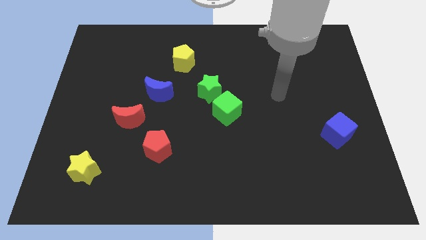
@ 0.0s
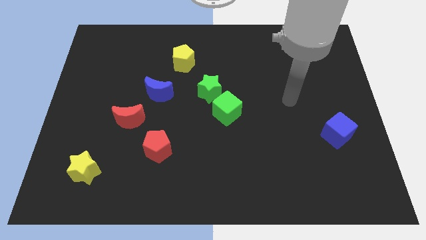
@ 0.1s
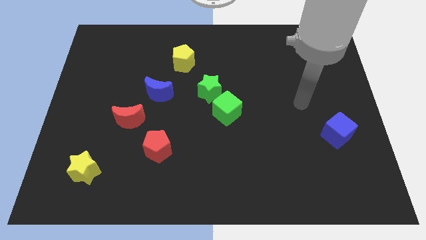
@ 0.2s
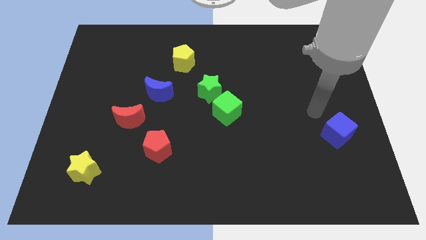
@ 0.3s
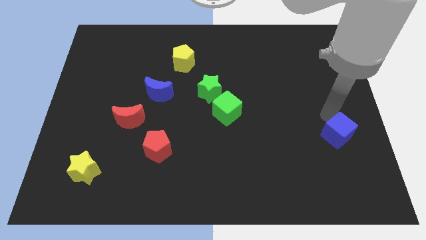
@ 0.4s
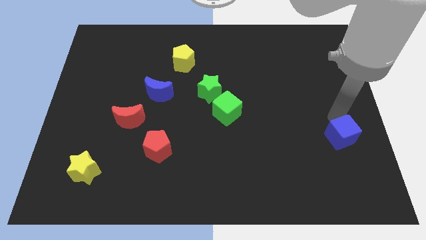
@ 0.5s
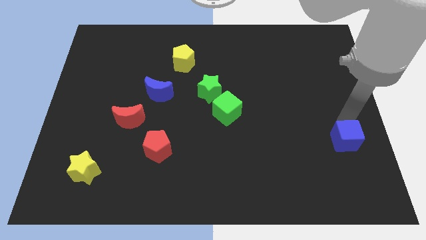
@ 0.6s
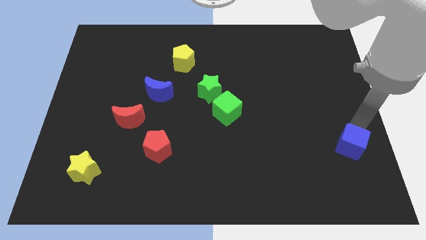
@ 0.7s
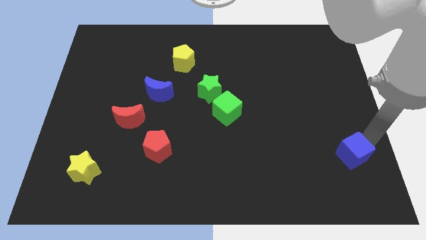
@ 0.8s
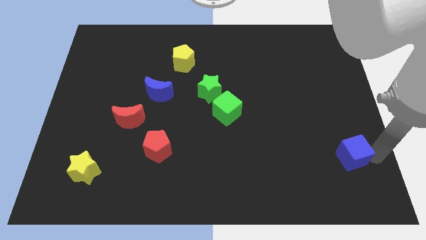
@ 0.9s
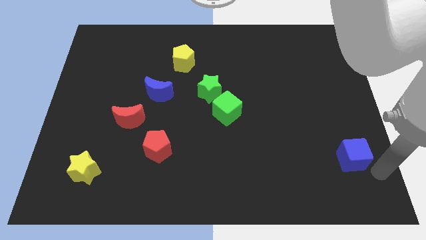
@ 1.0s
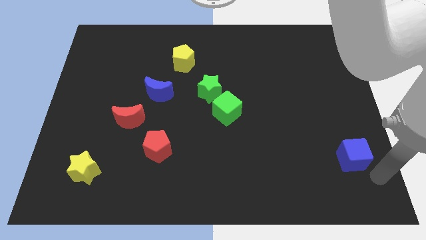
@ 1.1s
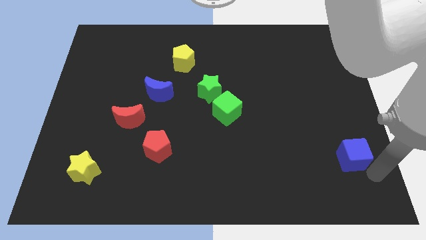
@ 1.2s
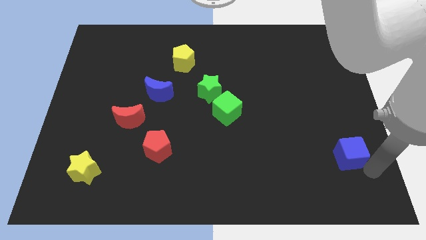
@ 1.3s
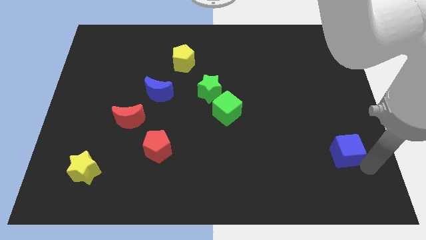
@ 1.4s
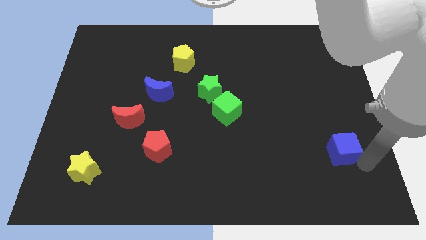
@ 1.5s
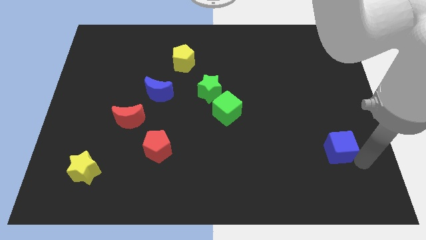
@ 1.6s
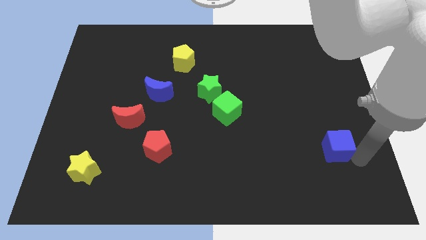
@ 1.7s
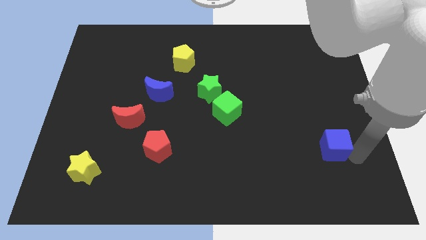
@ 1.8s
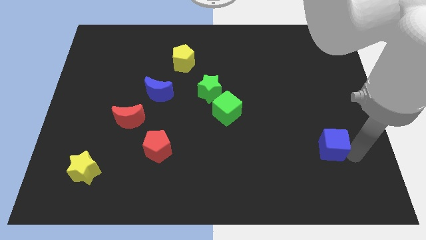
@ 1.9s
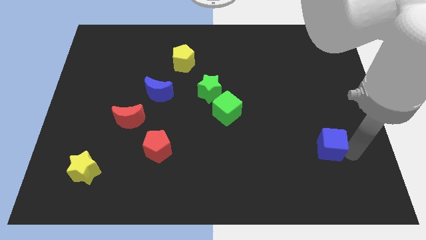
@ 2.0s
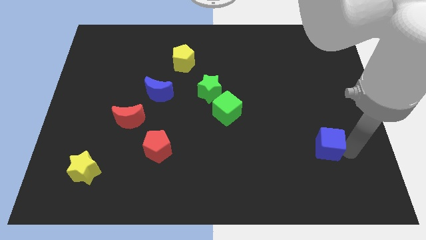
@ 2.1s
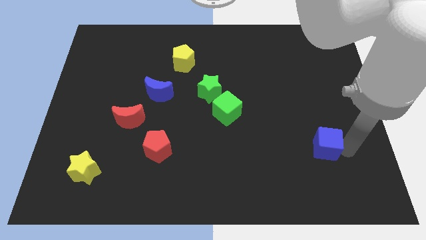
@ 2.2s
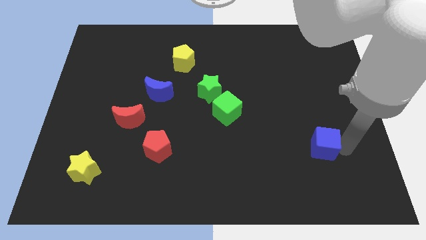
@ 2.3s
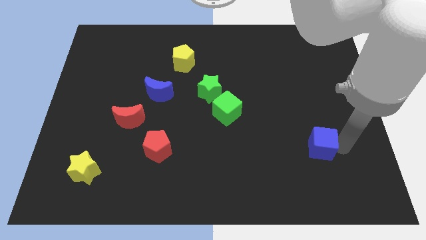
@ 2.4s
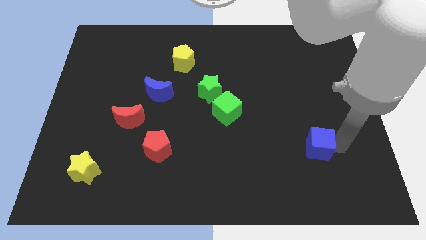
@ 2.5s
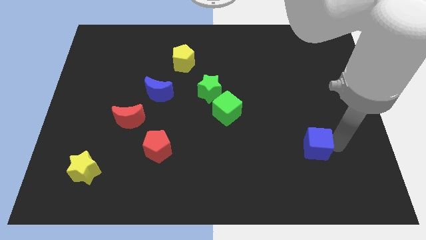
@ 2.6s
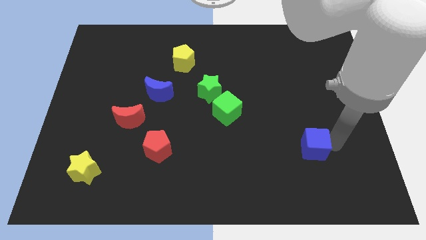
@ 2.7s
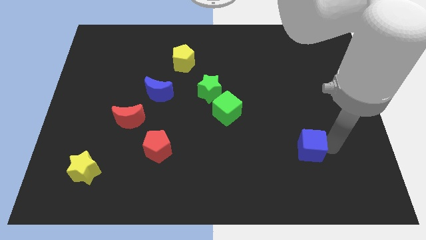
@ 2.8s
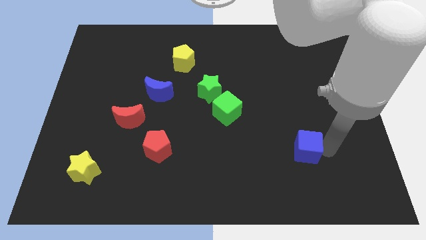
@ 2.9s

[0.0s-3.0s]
push the blue cube a bit left

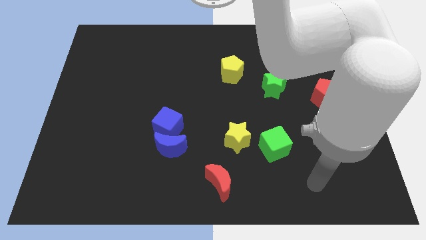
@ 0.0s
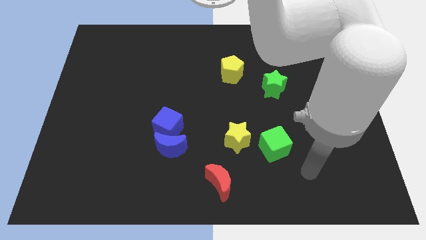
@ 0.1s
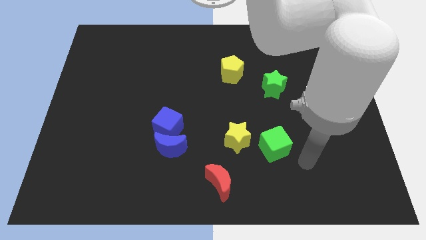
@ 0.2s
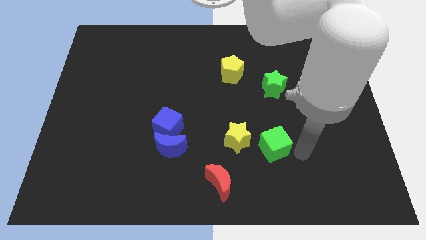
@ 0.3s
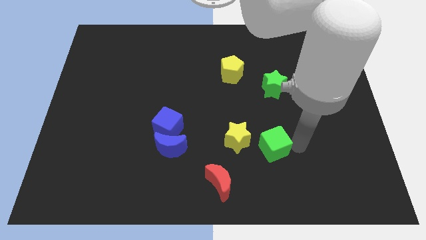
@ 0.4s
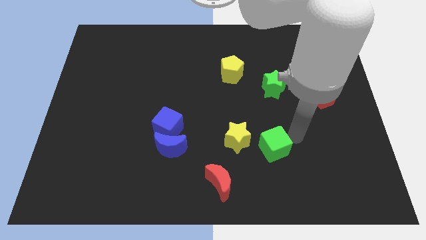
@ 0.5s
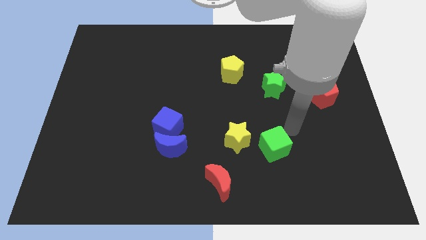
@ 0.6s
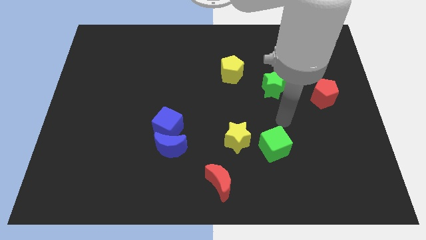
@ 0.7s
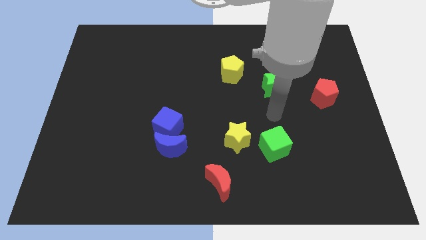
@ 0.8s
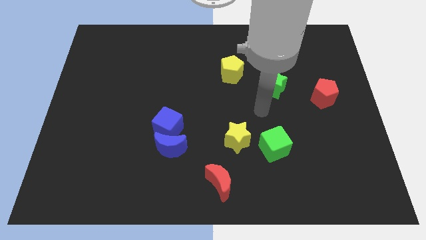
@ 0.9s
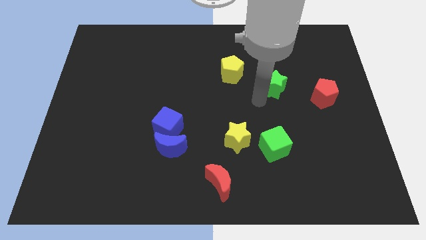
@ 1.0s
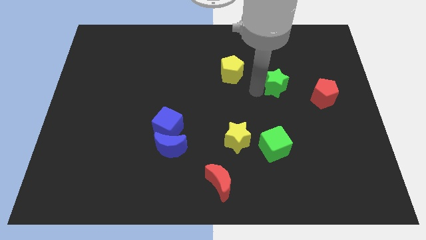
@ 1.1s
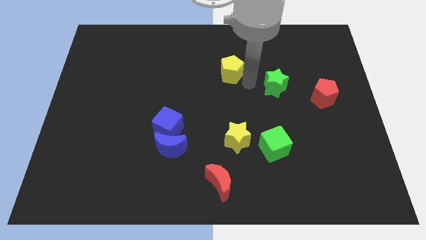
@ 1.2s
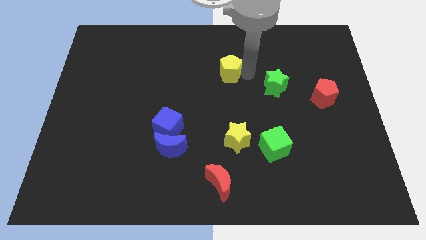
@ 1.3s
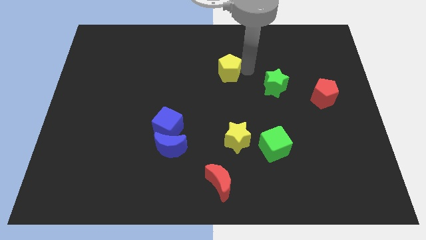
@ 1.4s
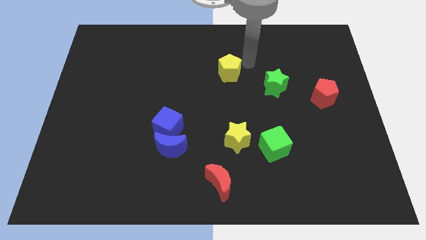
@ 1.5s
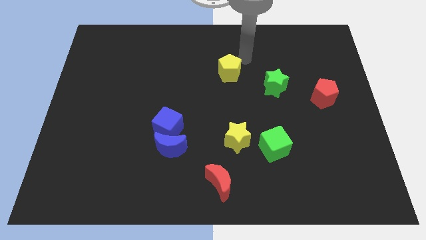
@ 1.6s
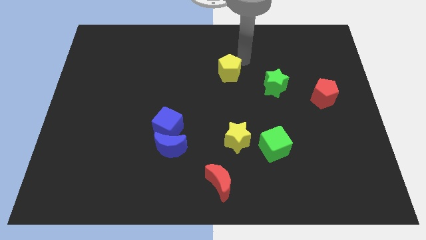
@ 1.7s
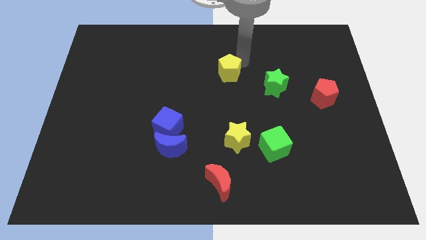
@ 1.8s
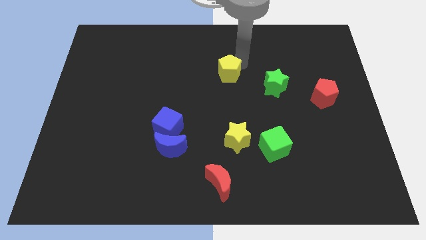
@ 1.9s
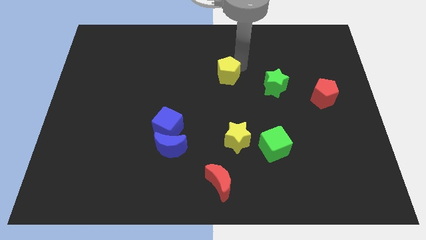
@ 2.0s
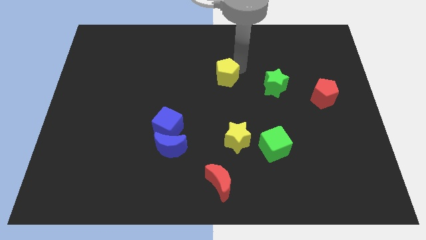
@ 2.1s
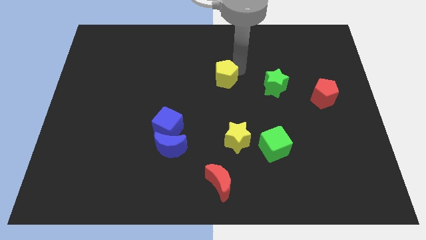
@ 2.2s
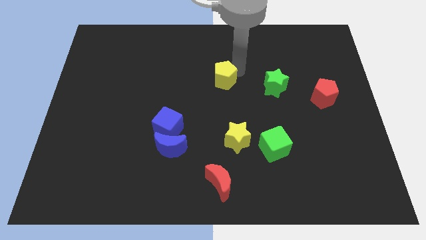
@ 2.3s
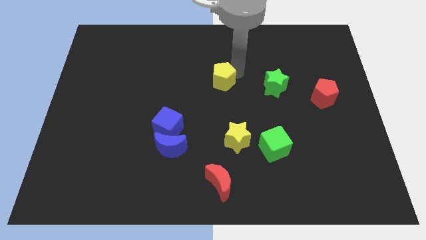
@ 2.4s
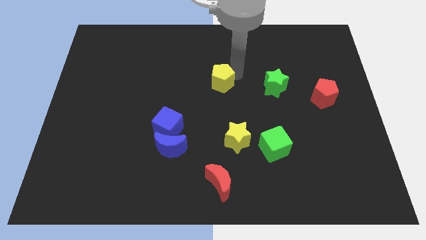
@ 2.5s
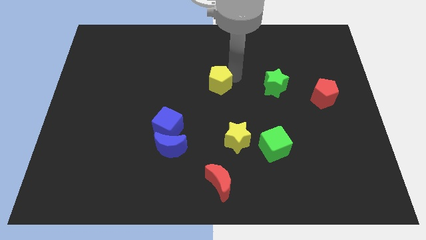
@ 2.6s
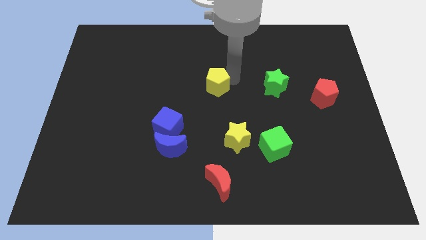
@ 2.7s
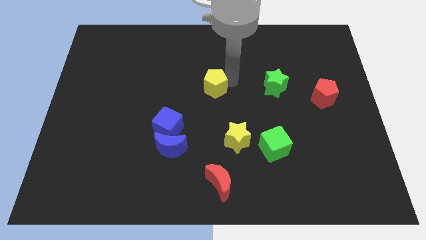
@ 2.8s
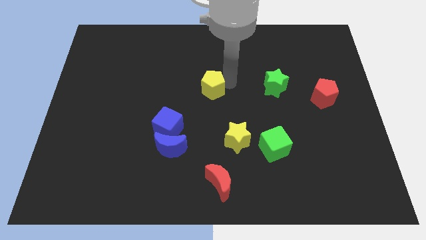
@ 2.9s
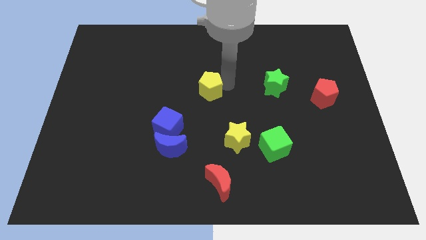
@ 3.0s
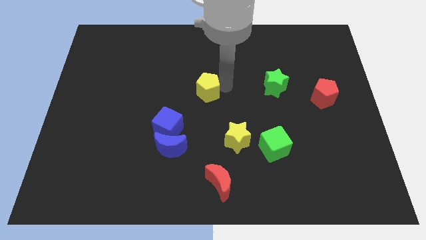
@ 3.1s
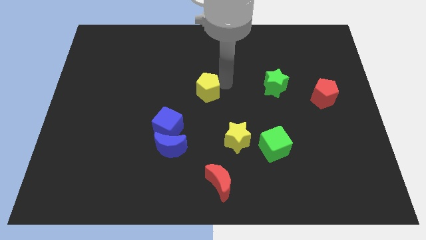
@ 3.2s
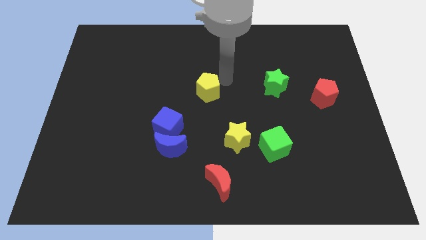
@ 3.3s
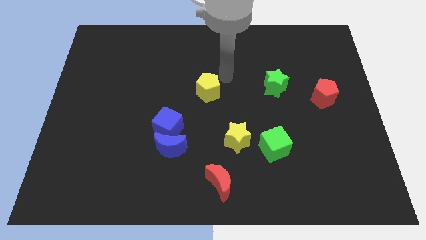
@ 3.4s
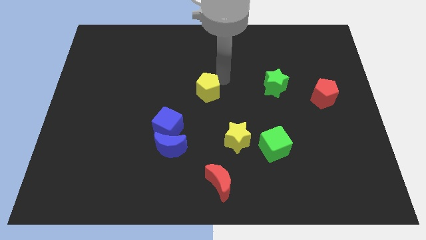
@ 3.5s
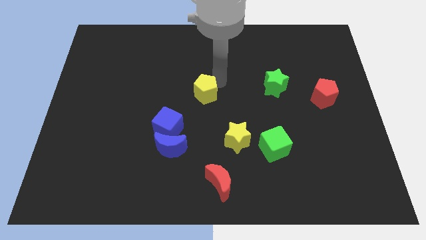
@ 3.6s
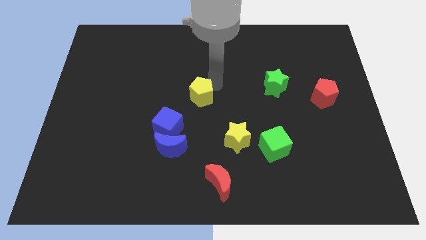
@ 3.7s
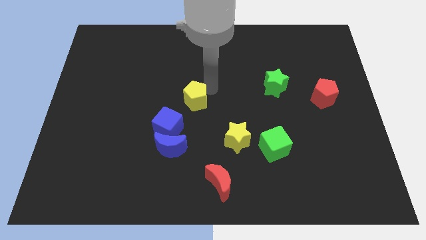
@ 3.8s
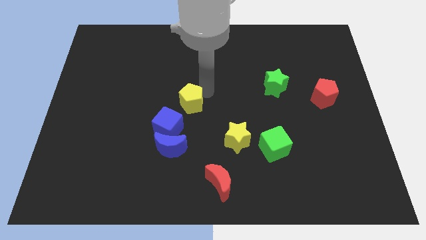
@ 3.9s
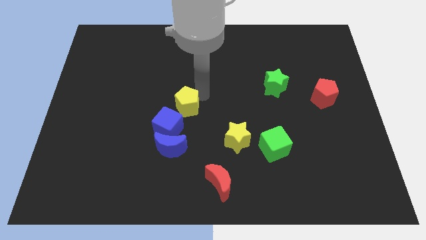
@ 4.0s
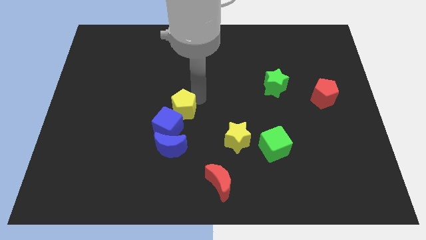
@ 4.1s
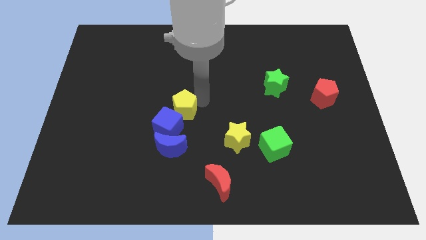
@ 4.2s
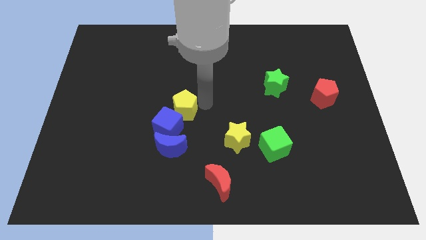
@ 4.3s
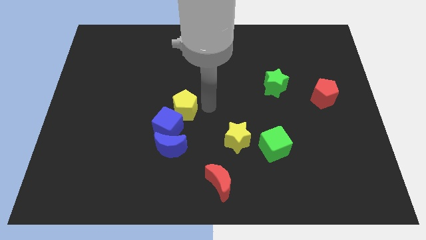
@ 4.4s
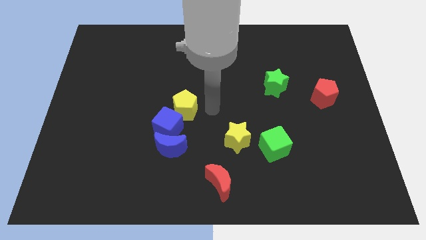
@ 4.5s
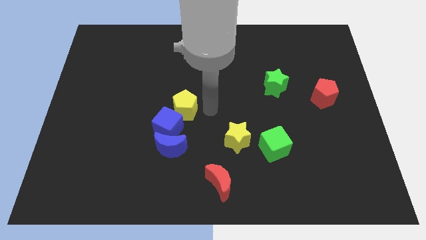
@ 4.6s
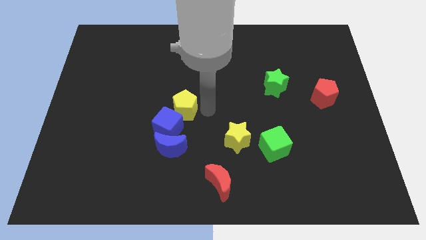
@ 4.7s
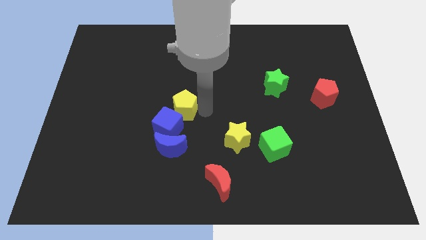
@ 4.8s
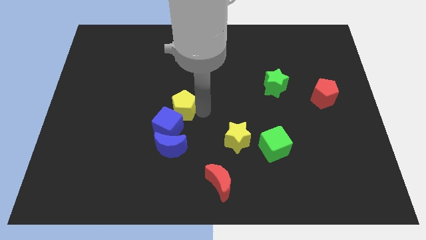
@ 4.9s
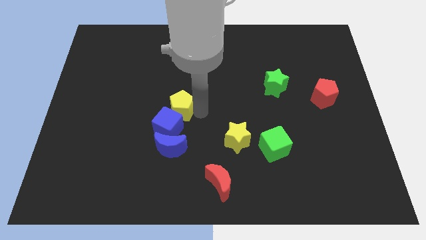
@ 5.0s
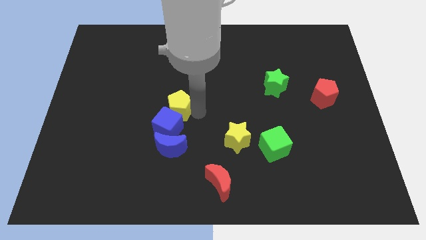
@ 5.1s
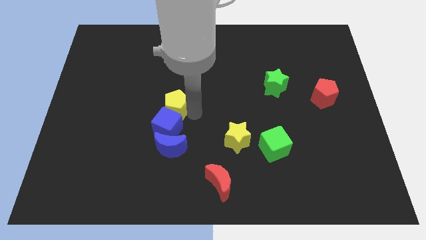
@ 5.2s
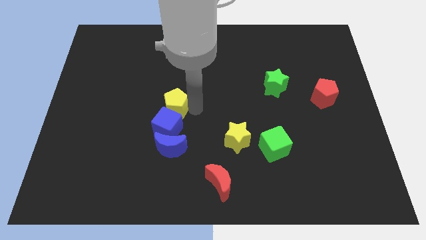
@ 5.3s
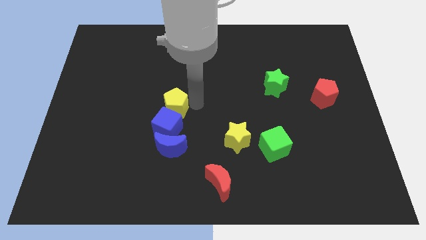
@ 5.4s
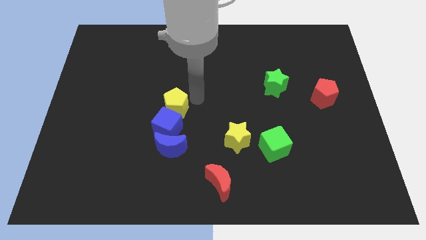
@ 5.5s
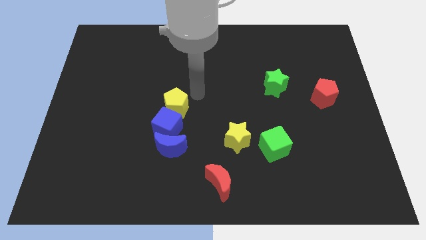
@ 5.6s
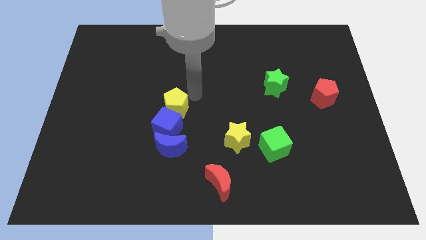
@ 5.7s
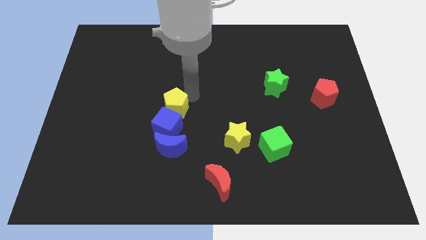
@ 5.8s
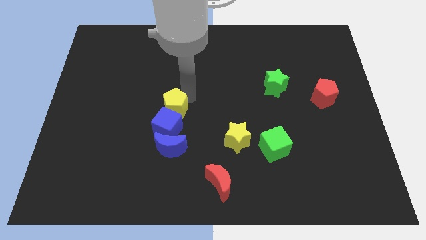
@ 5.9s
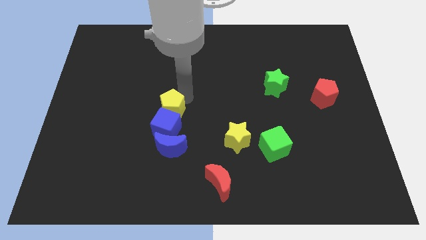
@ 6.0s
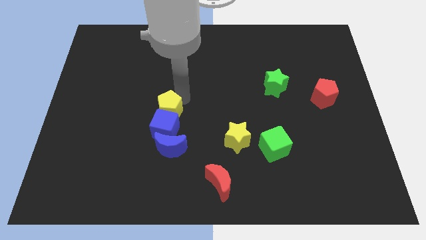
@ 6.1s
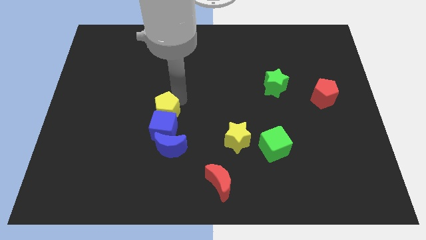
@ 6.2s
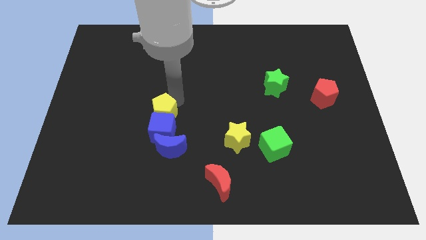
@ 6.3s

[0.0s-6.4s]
move the yellow pentagon diagonally down and to the left
